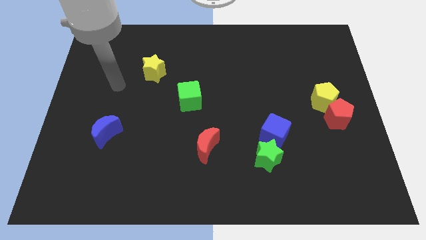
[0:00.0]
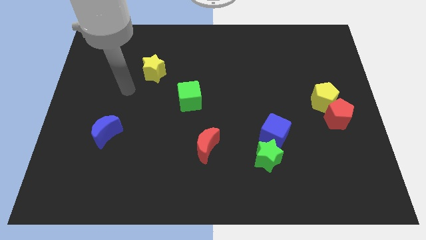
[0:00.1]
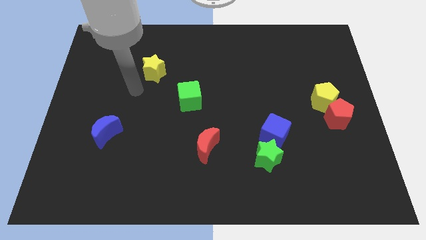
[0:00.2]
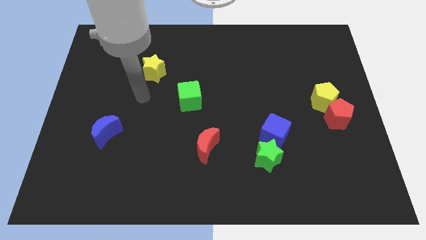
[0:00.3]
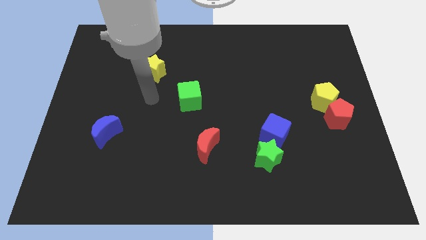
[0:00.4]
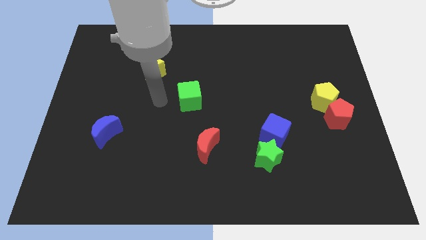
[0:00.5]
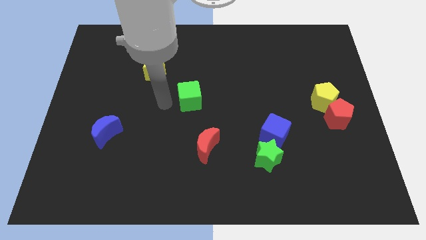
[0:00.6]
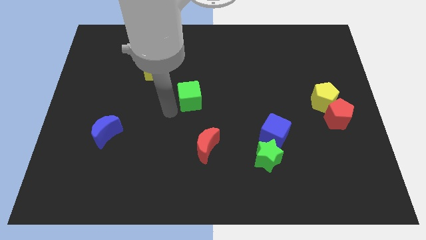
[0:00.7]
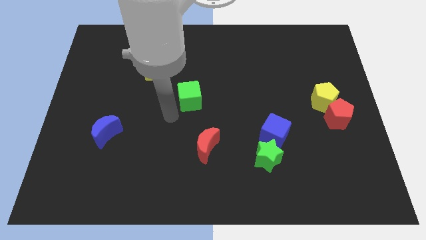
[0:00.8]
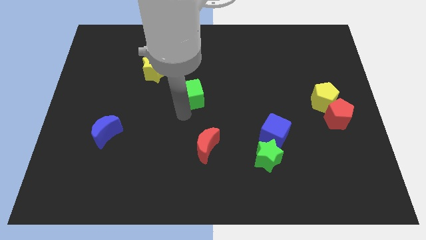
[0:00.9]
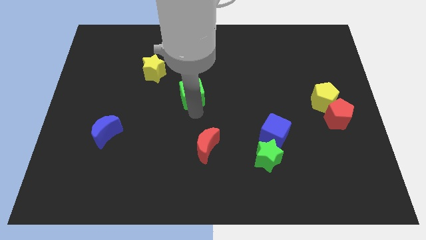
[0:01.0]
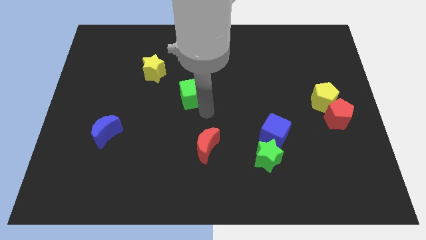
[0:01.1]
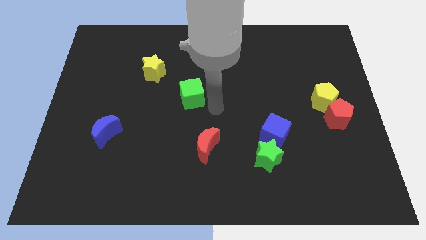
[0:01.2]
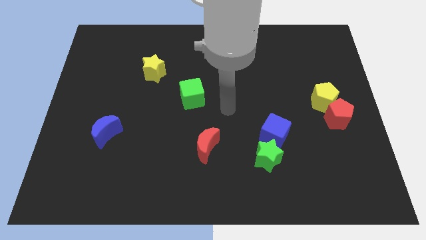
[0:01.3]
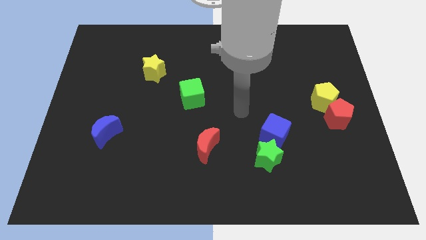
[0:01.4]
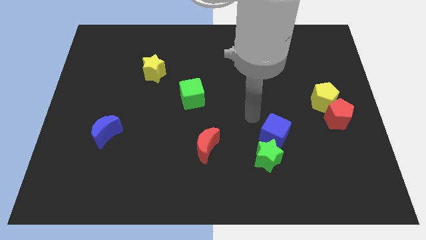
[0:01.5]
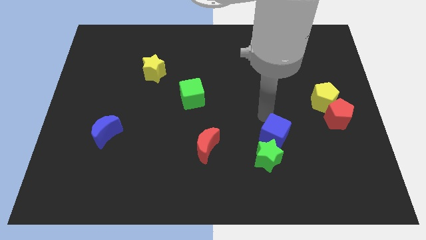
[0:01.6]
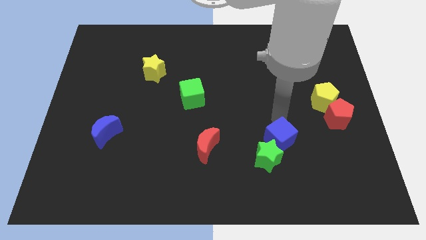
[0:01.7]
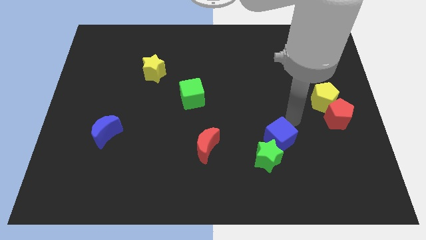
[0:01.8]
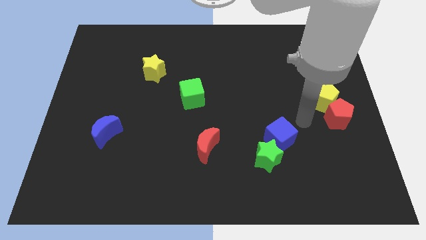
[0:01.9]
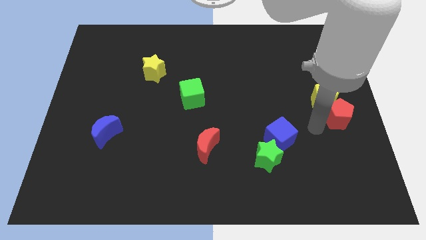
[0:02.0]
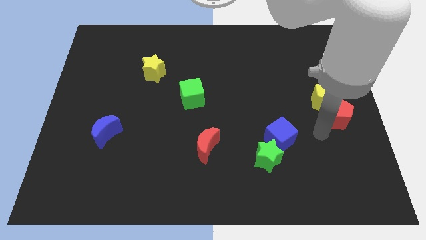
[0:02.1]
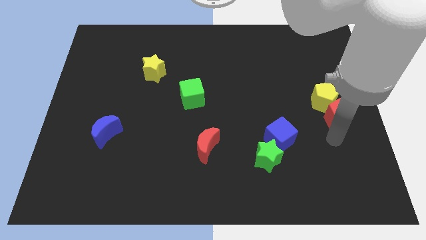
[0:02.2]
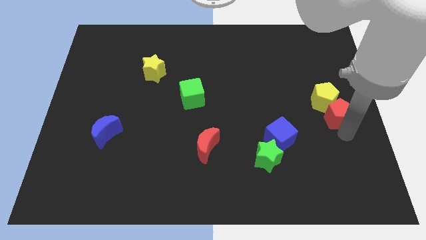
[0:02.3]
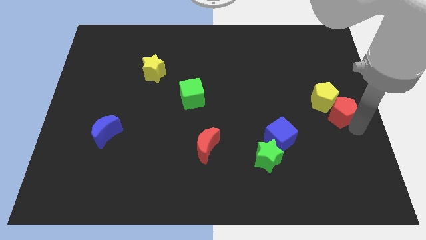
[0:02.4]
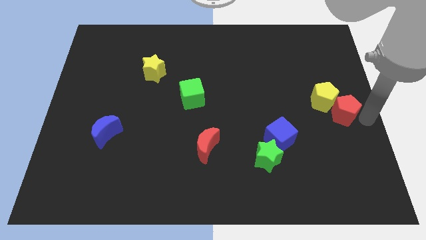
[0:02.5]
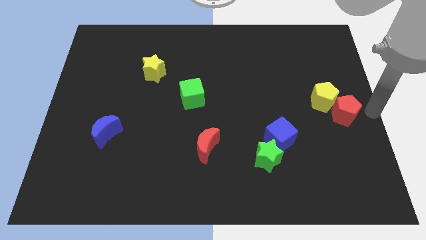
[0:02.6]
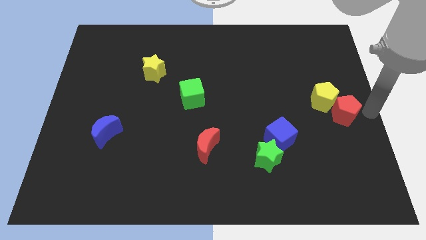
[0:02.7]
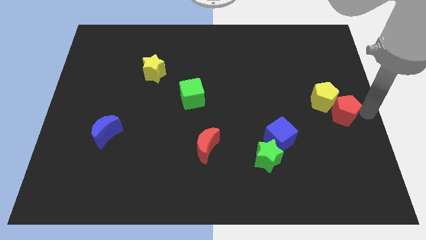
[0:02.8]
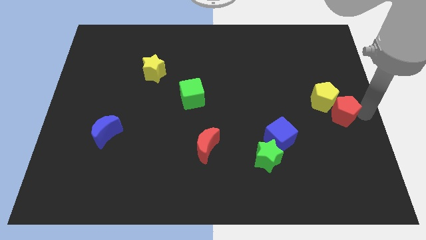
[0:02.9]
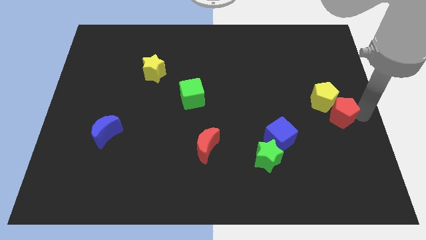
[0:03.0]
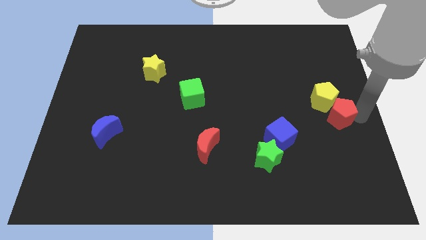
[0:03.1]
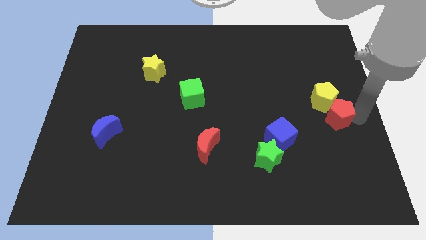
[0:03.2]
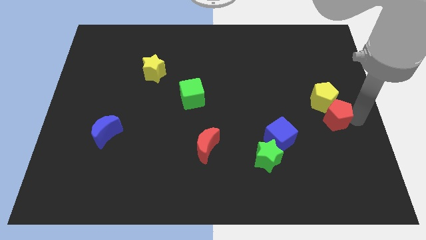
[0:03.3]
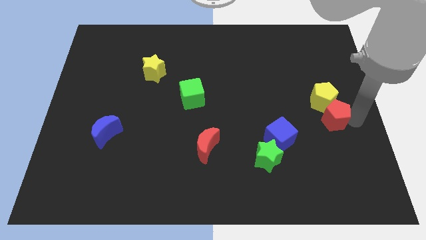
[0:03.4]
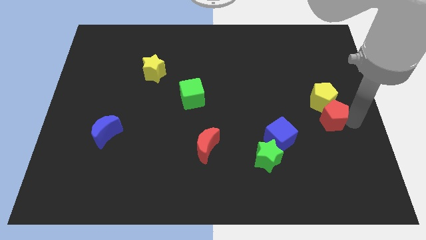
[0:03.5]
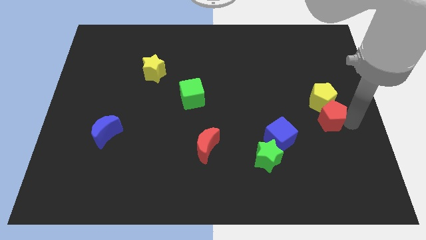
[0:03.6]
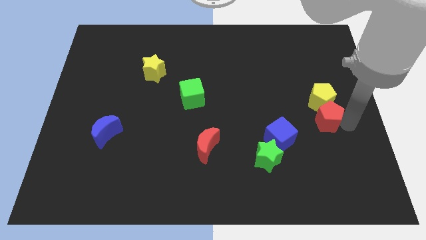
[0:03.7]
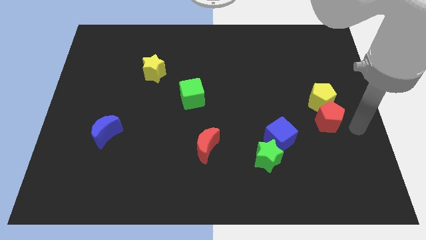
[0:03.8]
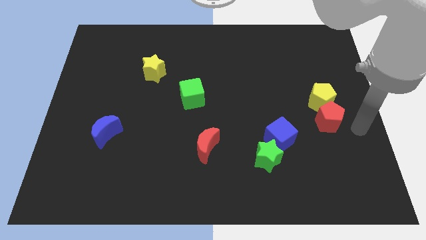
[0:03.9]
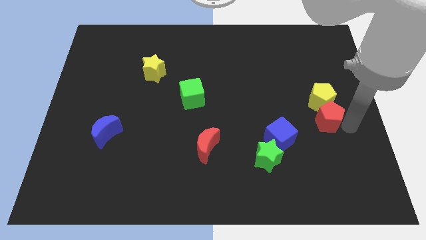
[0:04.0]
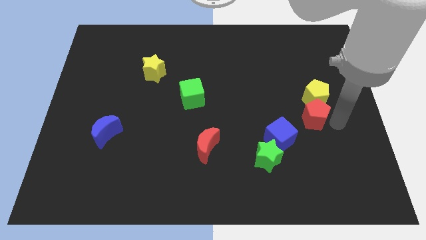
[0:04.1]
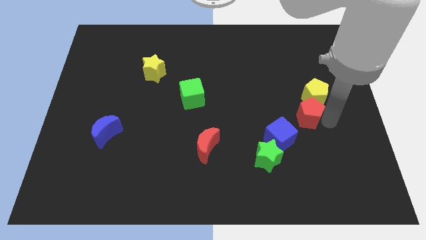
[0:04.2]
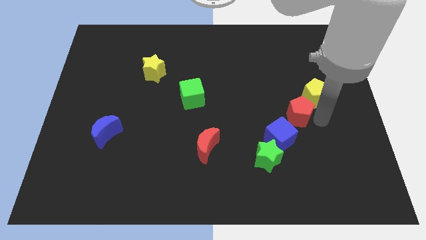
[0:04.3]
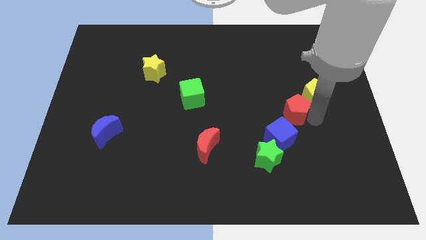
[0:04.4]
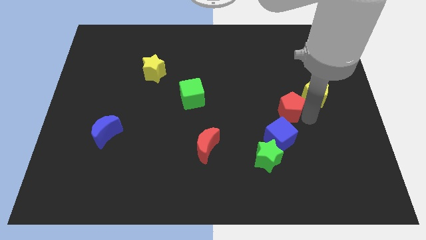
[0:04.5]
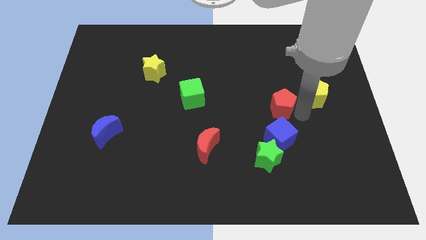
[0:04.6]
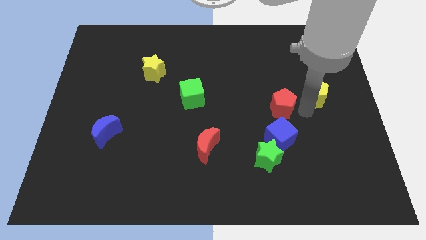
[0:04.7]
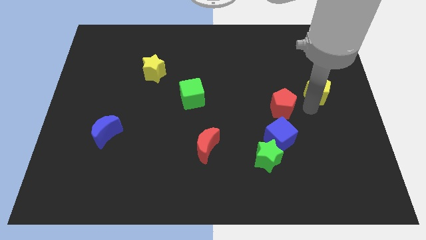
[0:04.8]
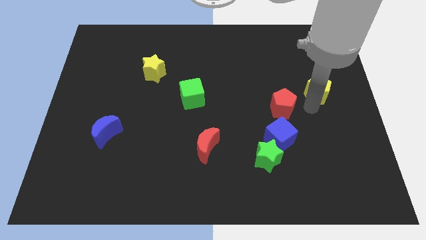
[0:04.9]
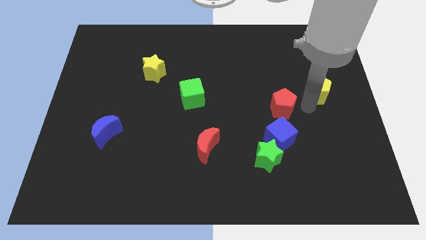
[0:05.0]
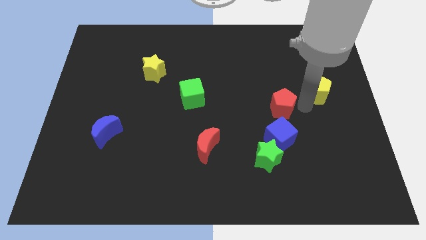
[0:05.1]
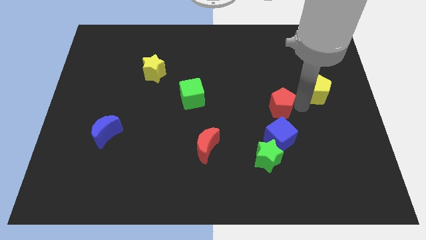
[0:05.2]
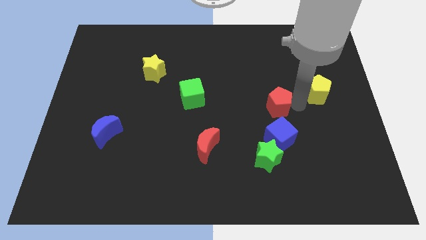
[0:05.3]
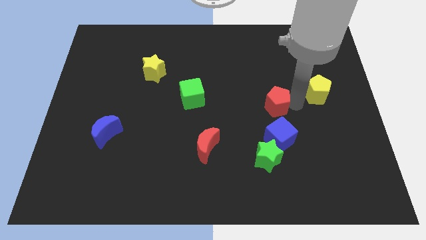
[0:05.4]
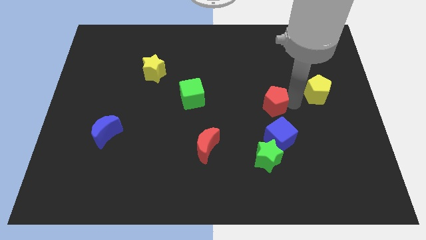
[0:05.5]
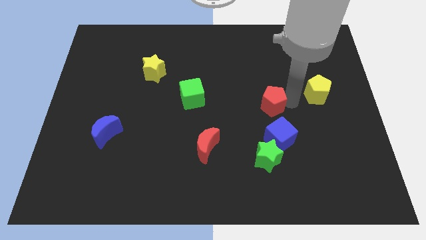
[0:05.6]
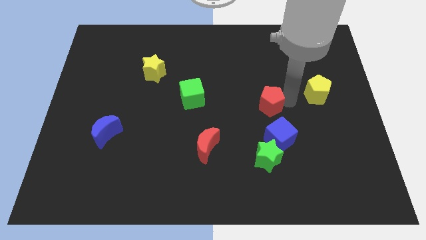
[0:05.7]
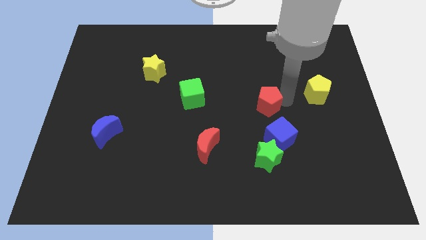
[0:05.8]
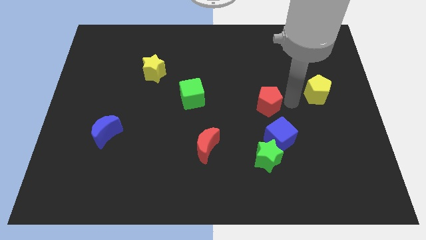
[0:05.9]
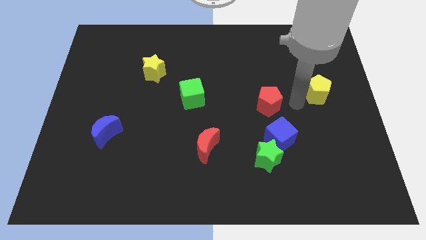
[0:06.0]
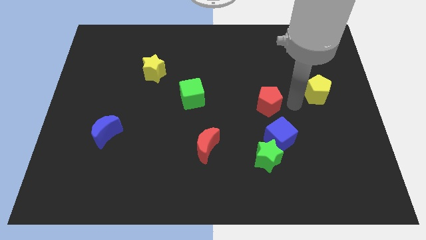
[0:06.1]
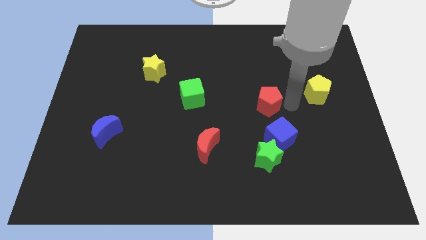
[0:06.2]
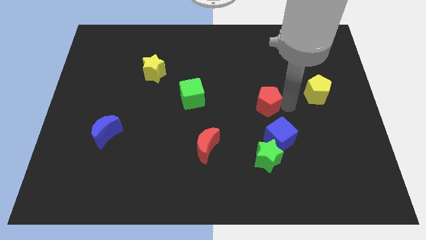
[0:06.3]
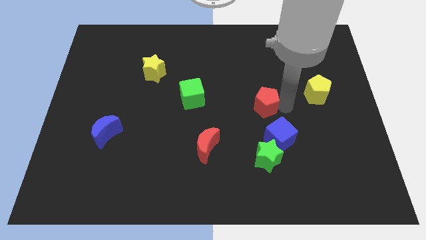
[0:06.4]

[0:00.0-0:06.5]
slide the red pentagon to the center of the board
